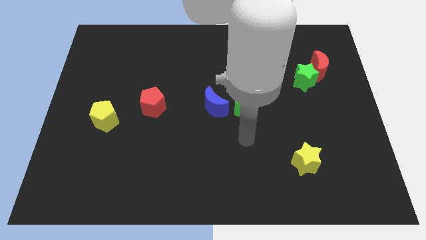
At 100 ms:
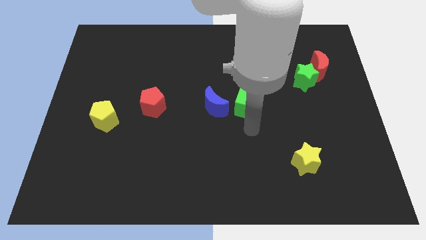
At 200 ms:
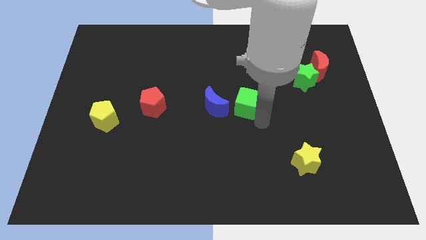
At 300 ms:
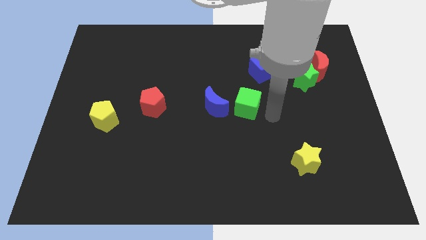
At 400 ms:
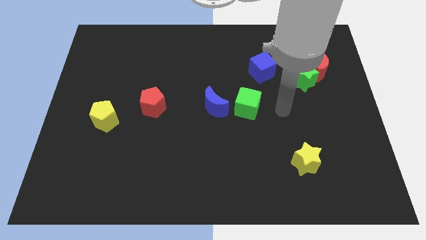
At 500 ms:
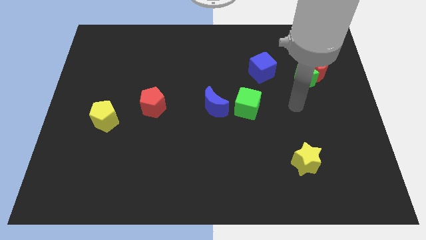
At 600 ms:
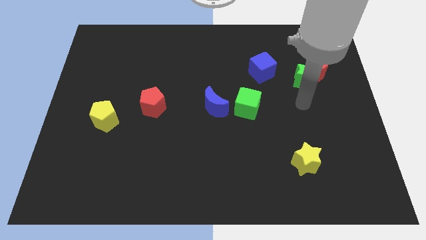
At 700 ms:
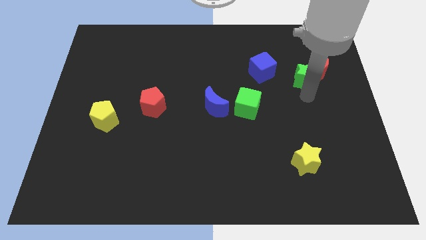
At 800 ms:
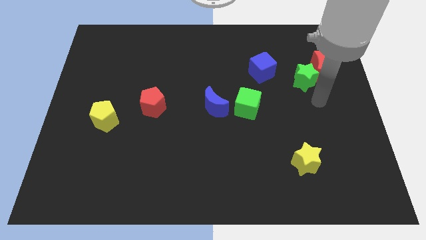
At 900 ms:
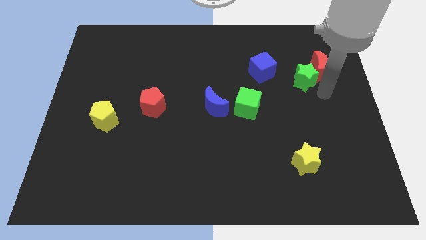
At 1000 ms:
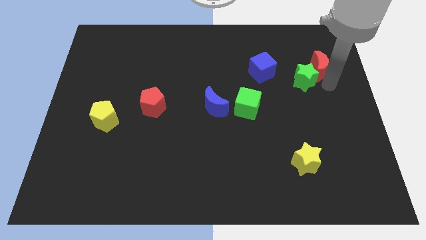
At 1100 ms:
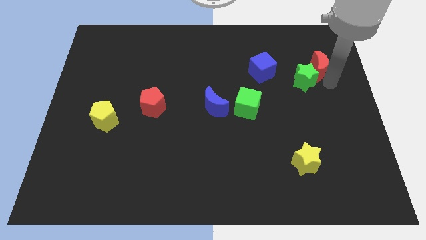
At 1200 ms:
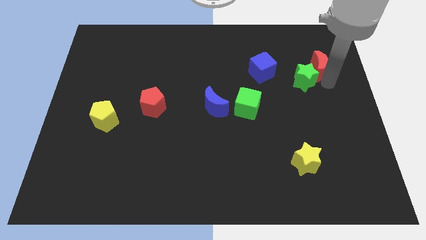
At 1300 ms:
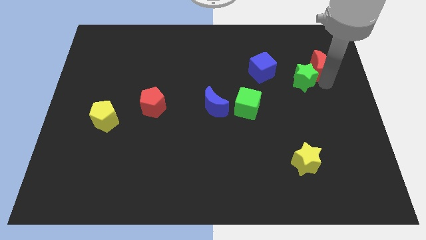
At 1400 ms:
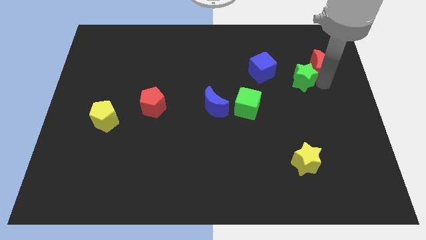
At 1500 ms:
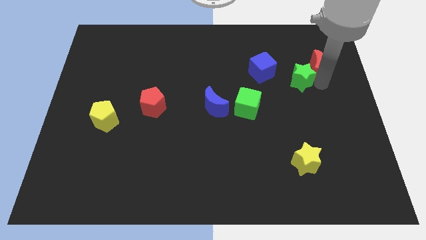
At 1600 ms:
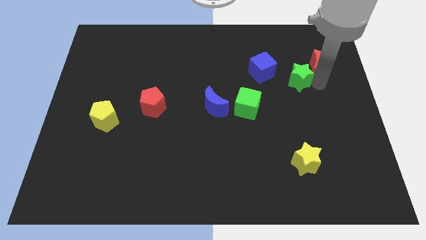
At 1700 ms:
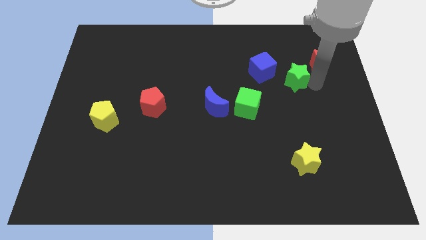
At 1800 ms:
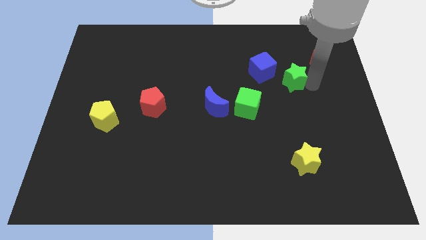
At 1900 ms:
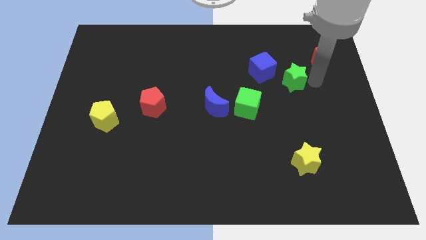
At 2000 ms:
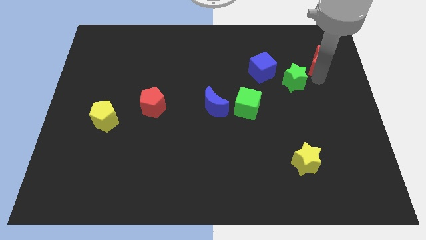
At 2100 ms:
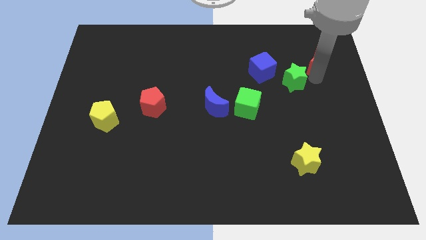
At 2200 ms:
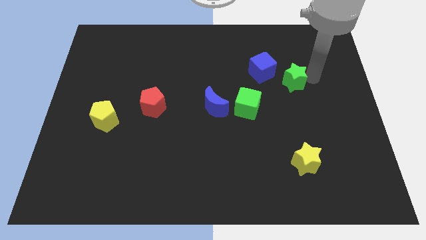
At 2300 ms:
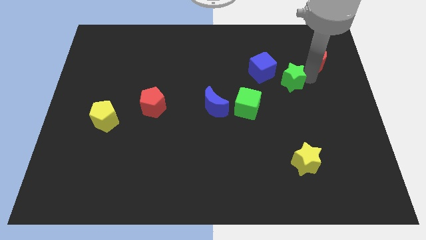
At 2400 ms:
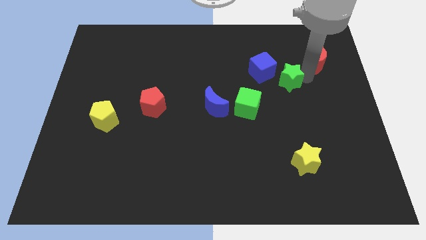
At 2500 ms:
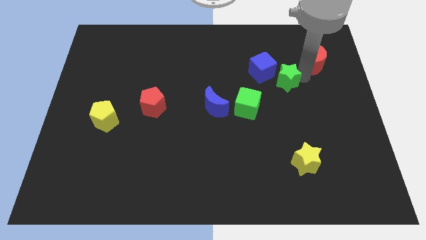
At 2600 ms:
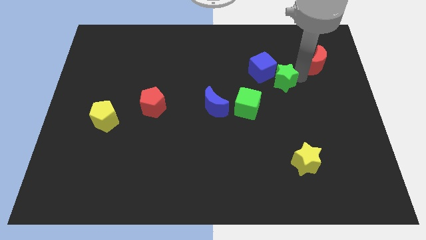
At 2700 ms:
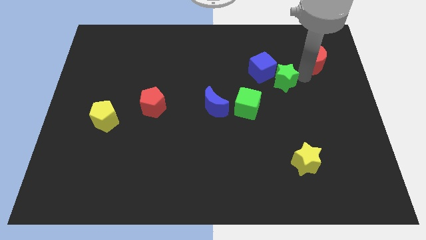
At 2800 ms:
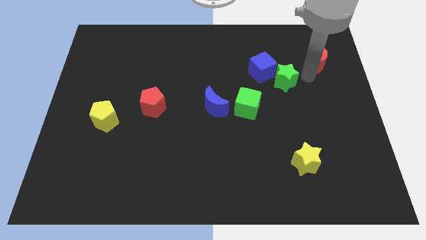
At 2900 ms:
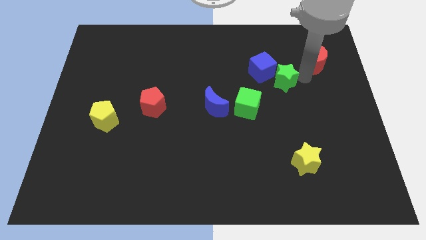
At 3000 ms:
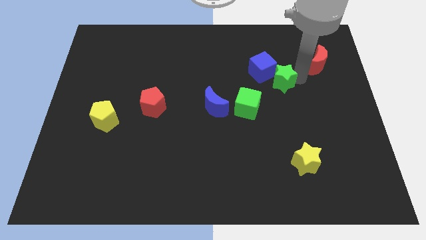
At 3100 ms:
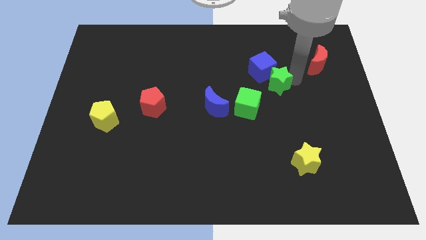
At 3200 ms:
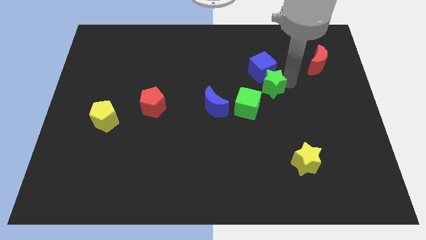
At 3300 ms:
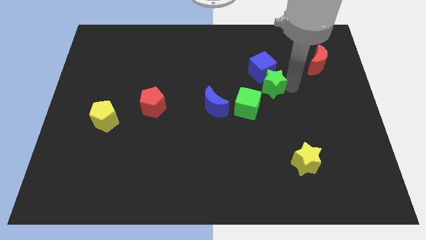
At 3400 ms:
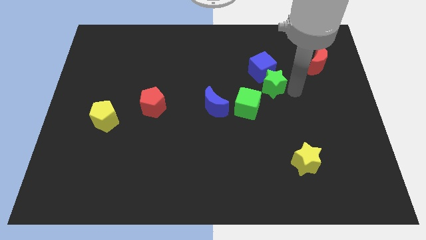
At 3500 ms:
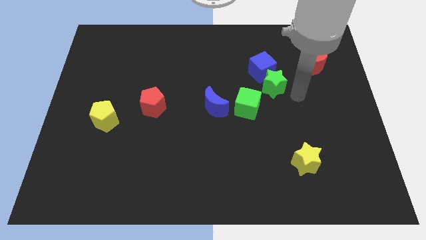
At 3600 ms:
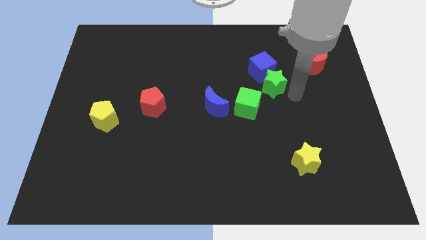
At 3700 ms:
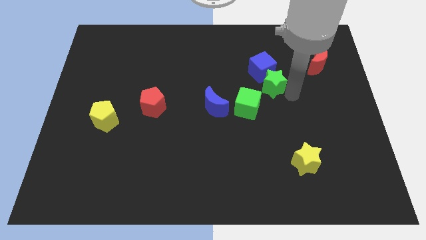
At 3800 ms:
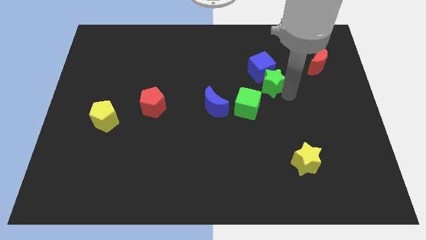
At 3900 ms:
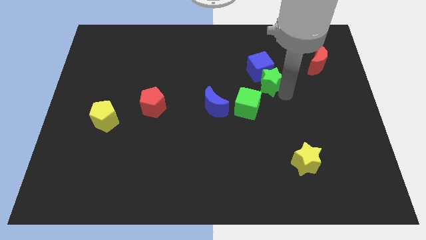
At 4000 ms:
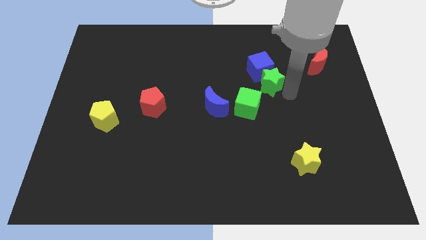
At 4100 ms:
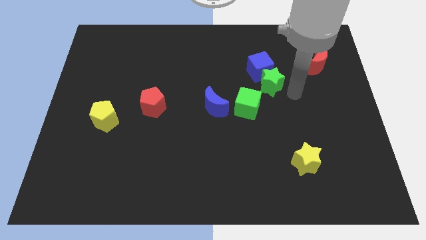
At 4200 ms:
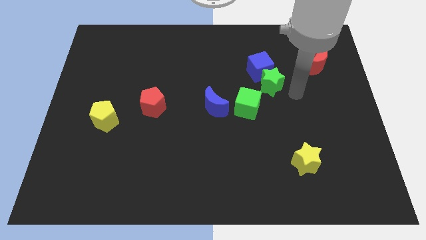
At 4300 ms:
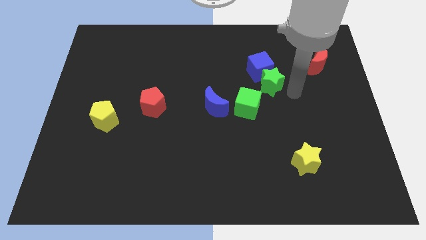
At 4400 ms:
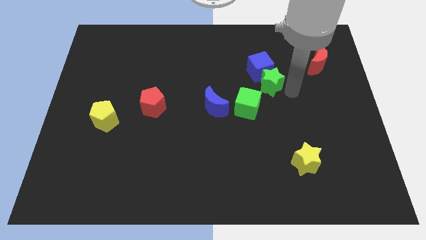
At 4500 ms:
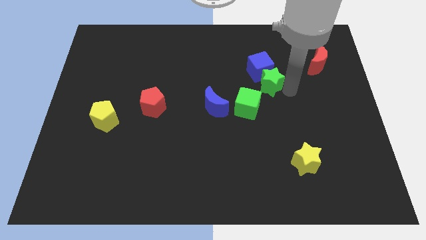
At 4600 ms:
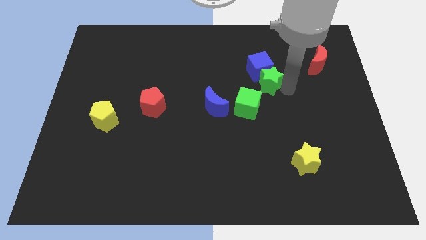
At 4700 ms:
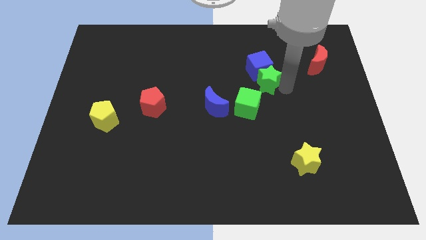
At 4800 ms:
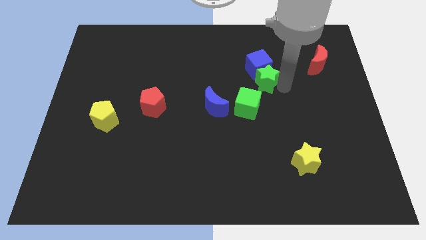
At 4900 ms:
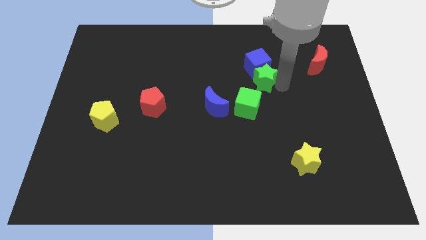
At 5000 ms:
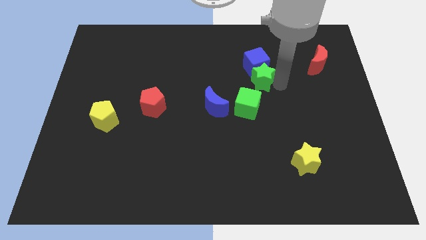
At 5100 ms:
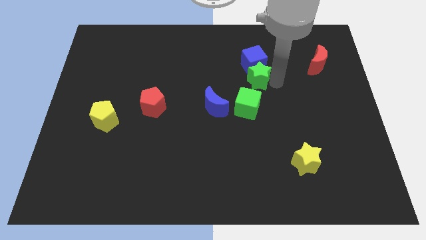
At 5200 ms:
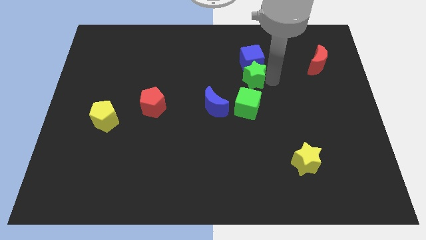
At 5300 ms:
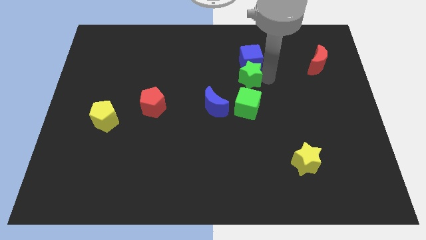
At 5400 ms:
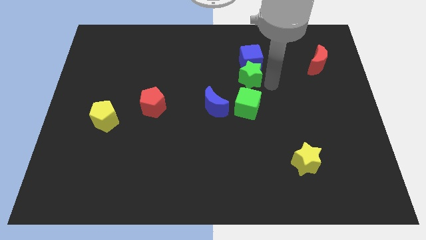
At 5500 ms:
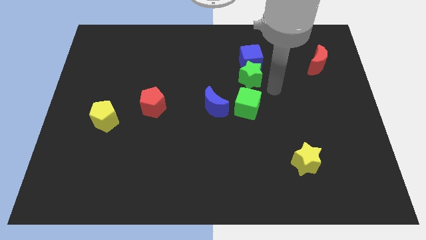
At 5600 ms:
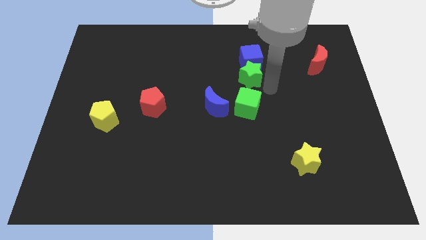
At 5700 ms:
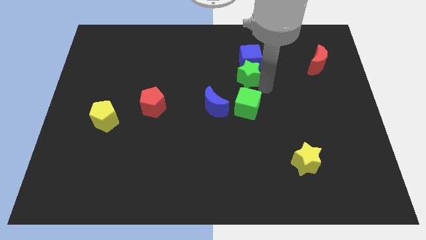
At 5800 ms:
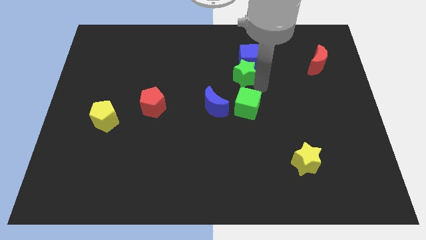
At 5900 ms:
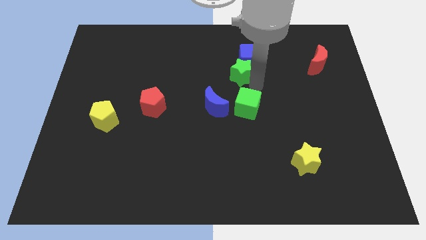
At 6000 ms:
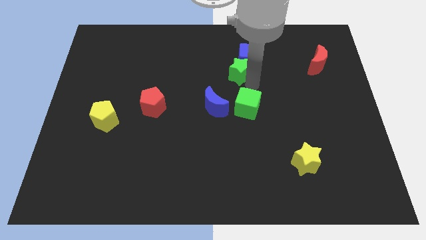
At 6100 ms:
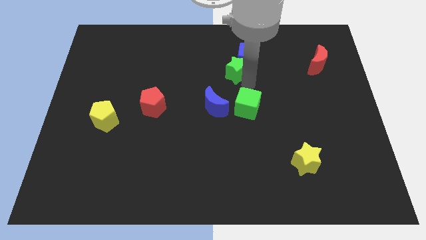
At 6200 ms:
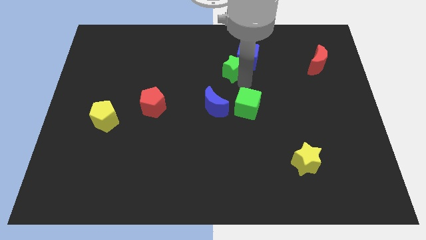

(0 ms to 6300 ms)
push the green star just left of the blue cube

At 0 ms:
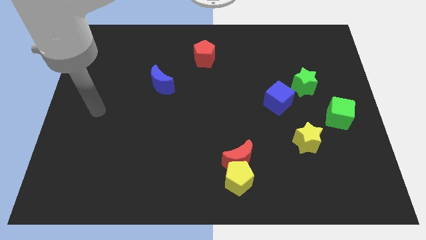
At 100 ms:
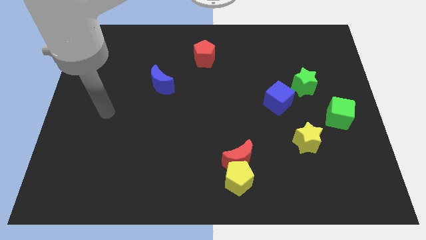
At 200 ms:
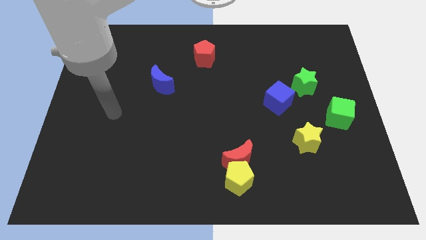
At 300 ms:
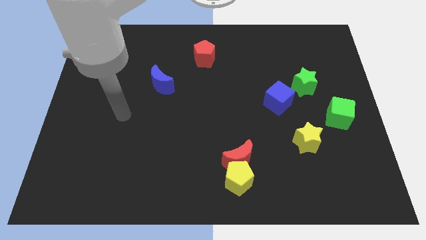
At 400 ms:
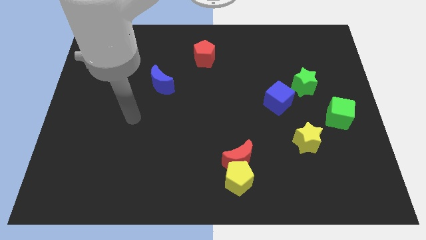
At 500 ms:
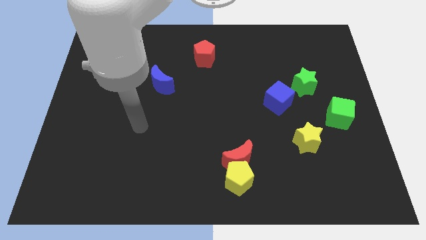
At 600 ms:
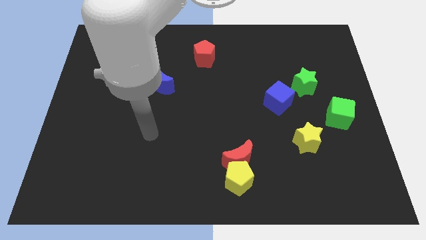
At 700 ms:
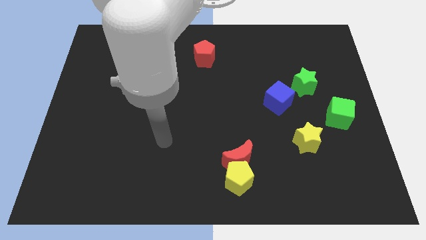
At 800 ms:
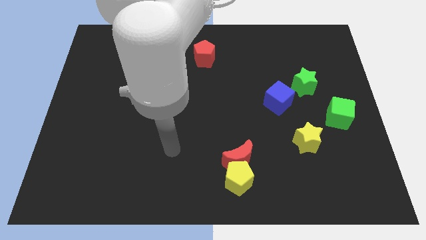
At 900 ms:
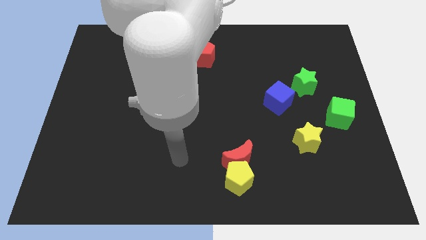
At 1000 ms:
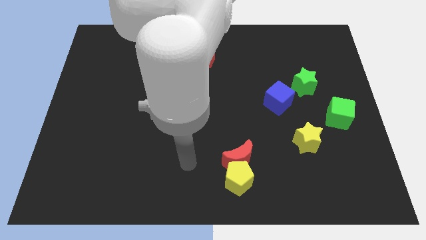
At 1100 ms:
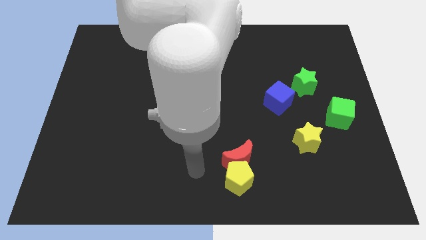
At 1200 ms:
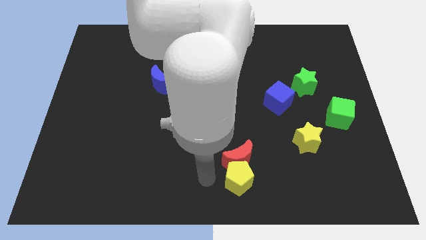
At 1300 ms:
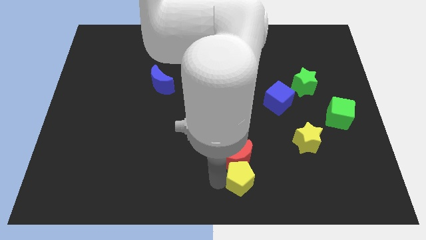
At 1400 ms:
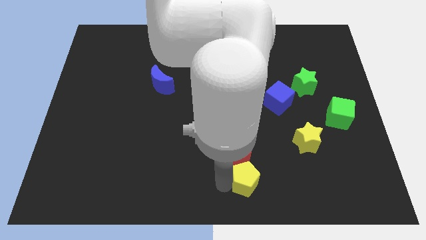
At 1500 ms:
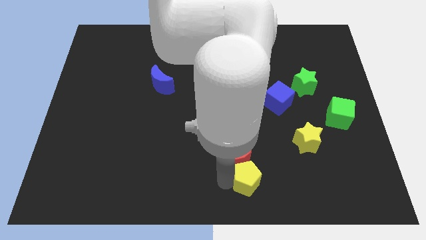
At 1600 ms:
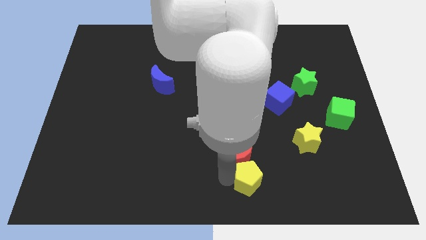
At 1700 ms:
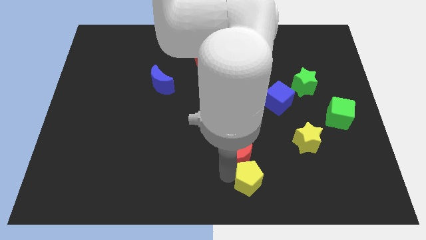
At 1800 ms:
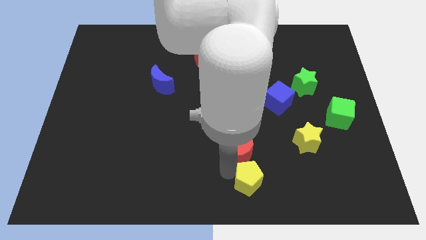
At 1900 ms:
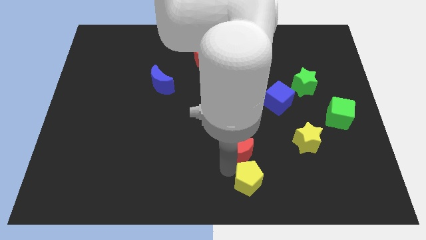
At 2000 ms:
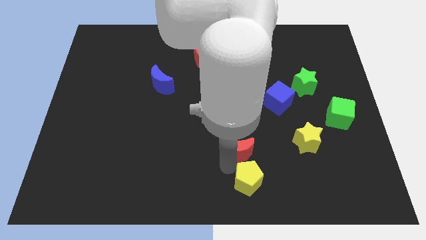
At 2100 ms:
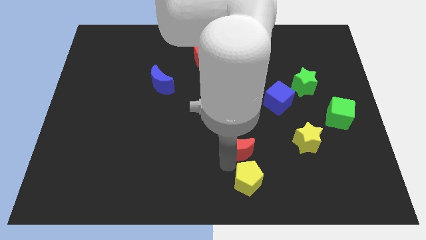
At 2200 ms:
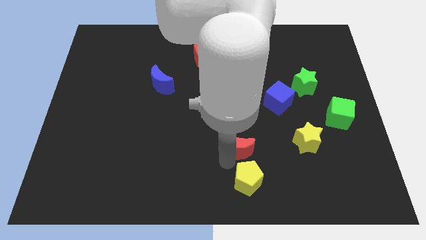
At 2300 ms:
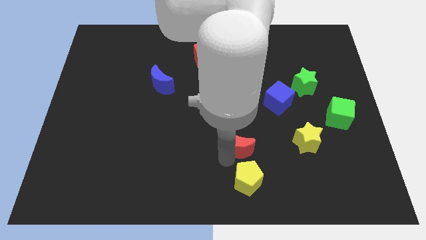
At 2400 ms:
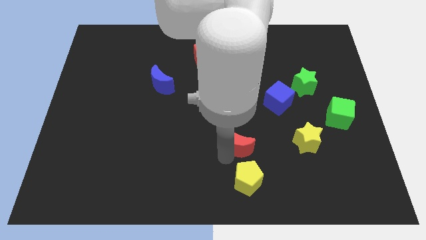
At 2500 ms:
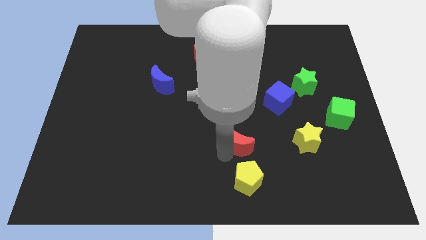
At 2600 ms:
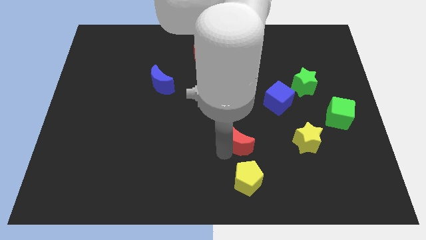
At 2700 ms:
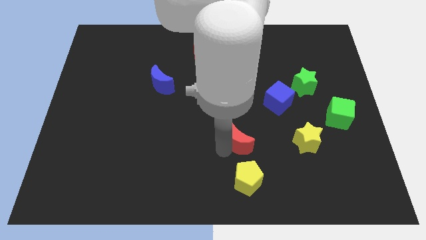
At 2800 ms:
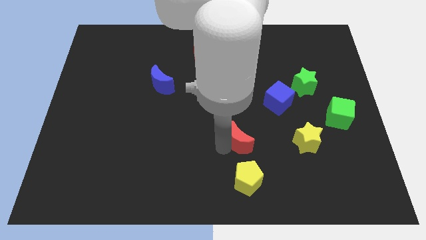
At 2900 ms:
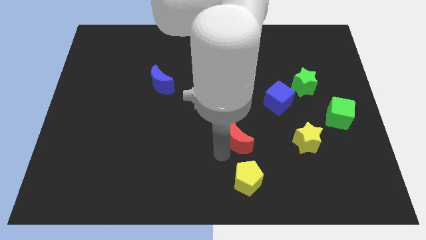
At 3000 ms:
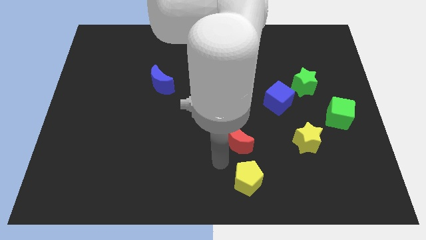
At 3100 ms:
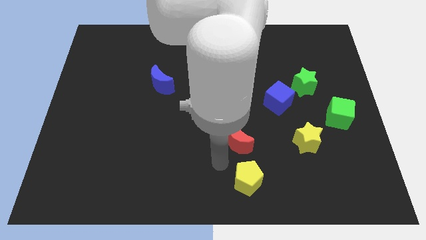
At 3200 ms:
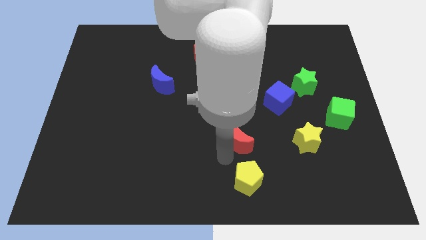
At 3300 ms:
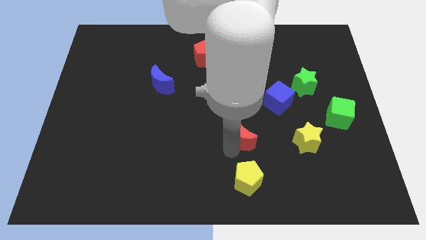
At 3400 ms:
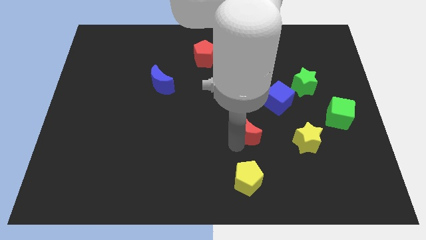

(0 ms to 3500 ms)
push the red moon diagonally down and to the left of the blue cube
